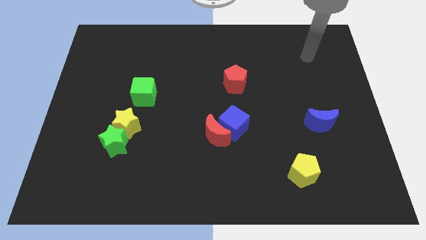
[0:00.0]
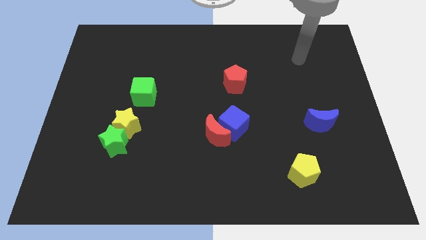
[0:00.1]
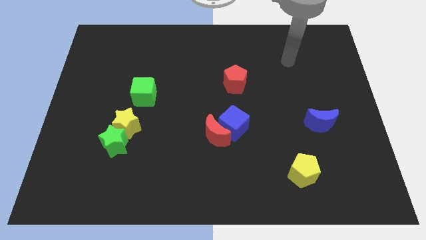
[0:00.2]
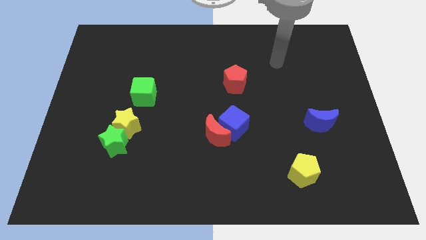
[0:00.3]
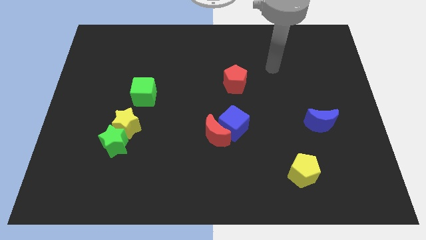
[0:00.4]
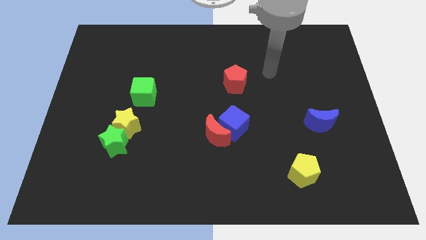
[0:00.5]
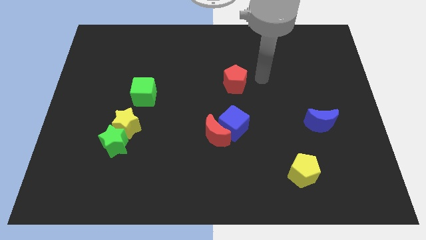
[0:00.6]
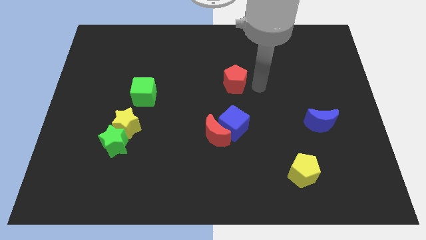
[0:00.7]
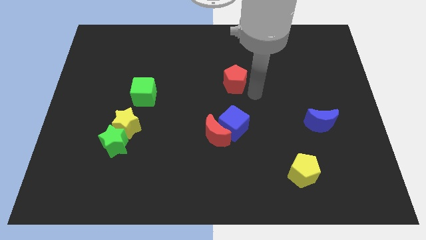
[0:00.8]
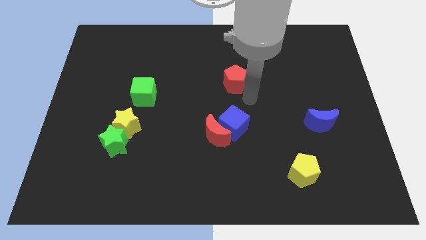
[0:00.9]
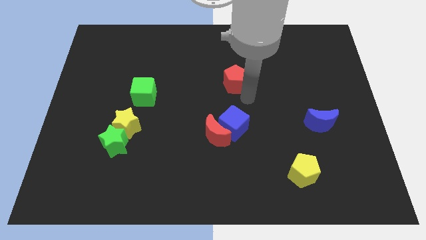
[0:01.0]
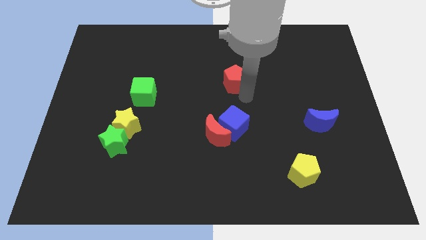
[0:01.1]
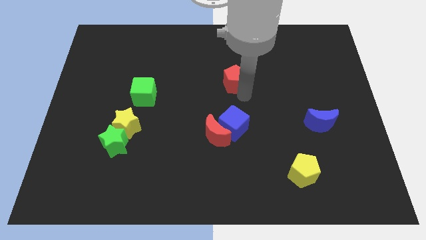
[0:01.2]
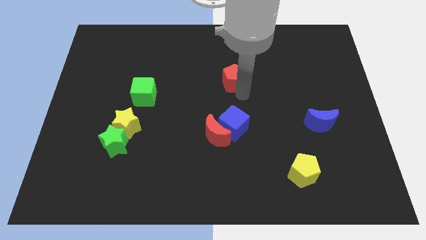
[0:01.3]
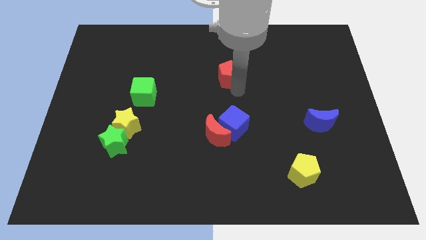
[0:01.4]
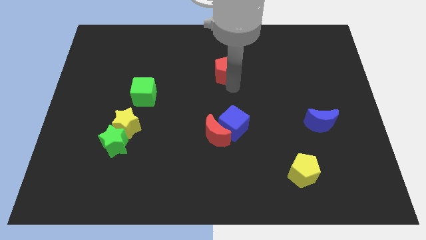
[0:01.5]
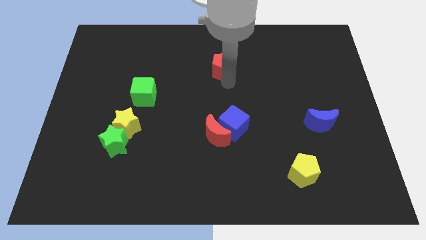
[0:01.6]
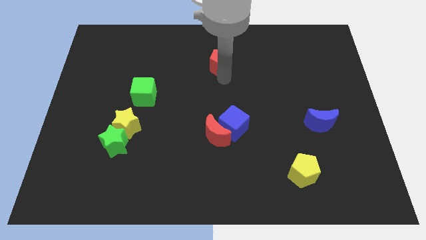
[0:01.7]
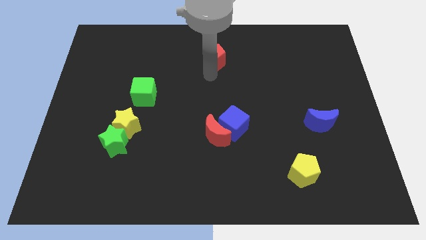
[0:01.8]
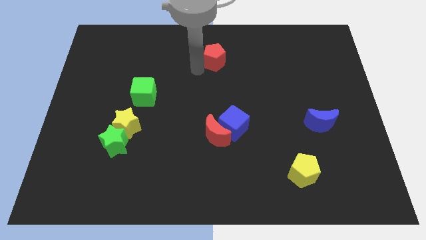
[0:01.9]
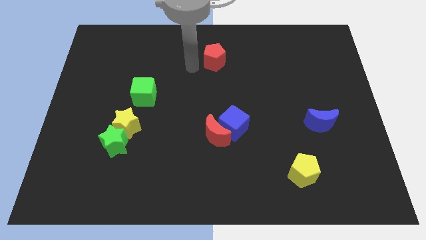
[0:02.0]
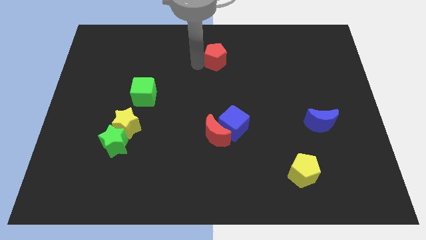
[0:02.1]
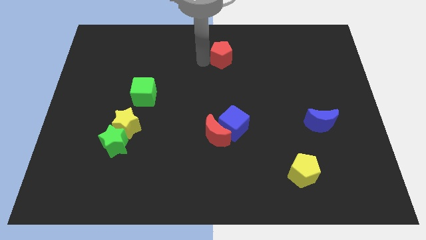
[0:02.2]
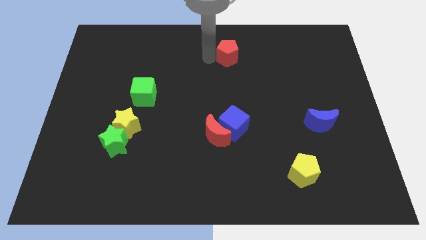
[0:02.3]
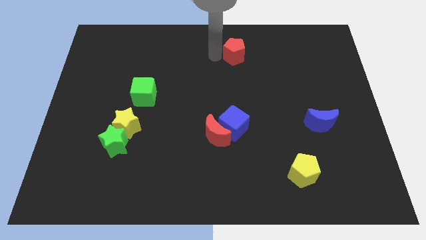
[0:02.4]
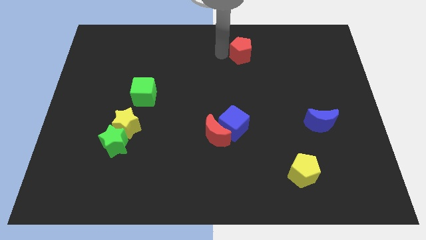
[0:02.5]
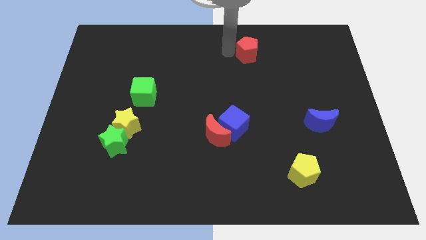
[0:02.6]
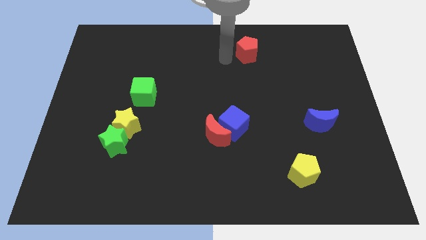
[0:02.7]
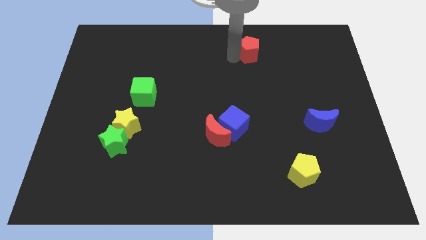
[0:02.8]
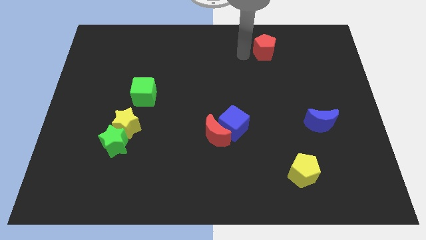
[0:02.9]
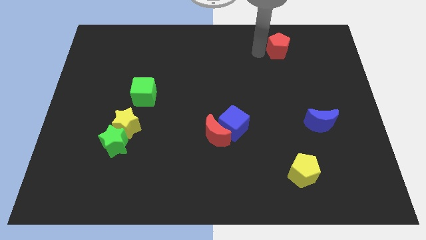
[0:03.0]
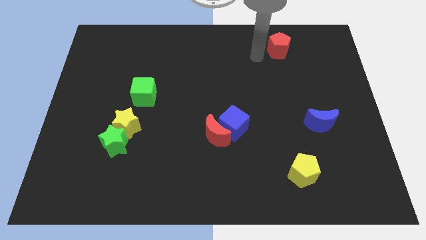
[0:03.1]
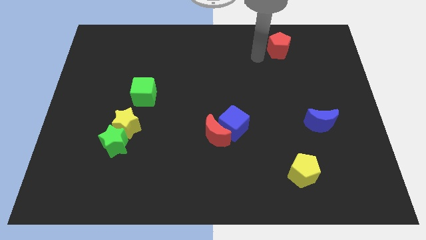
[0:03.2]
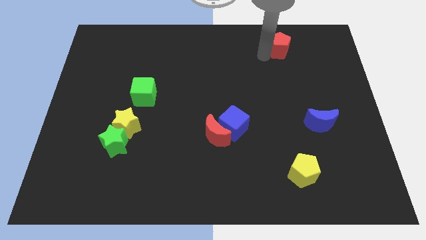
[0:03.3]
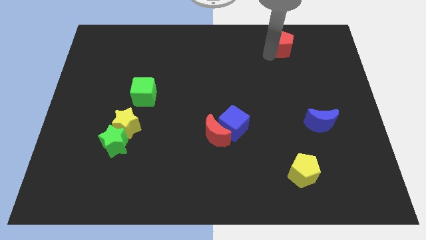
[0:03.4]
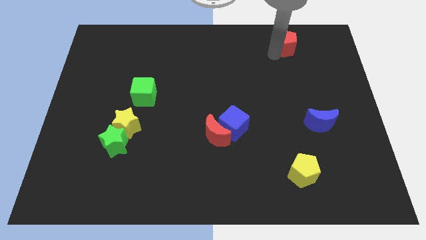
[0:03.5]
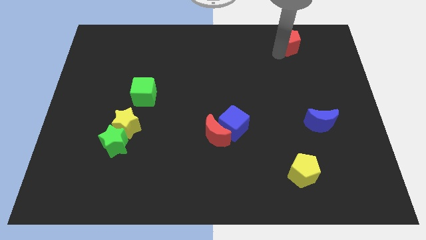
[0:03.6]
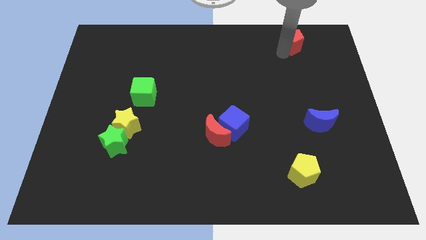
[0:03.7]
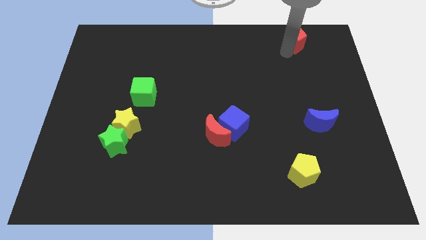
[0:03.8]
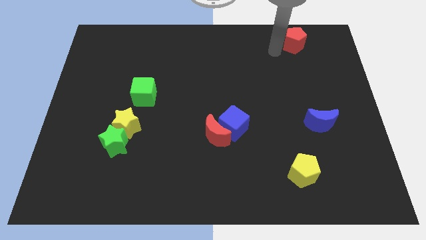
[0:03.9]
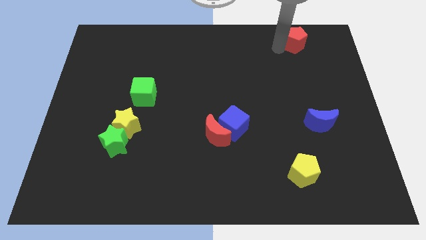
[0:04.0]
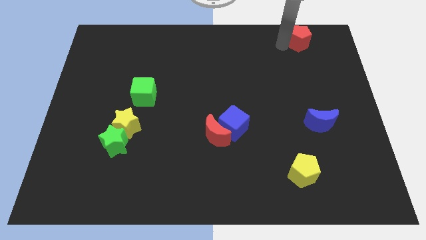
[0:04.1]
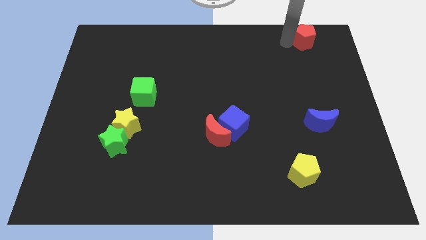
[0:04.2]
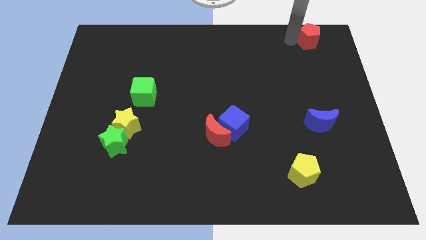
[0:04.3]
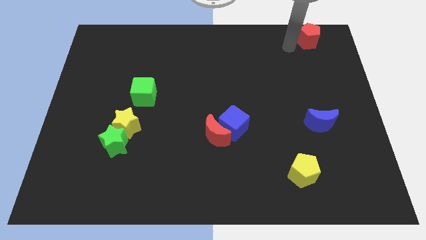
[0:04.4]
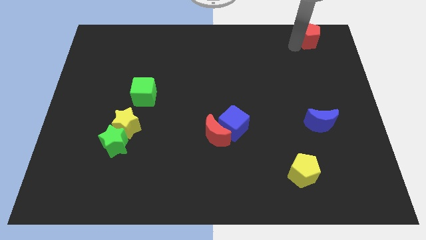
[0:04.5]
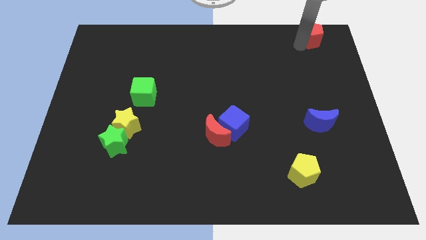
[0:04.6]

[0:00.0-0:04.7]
slide the red pentagon to the top right of the board

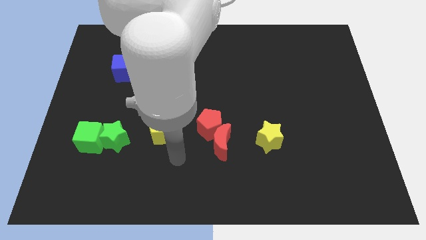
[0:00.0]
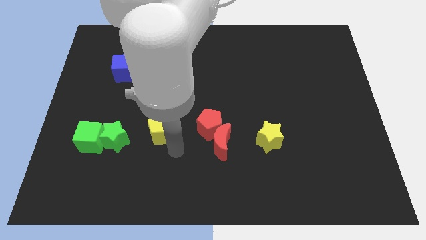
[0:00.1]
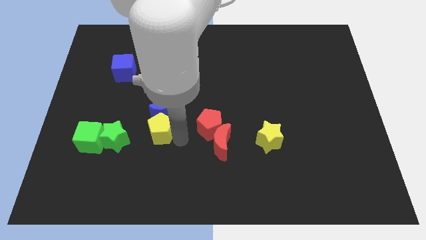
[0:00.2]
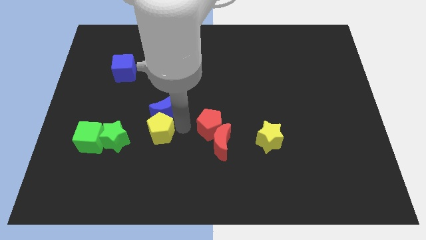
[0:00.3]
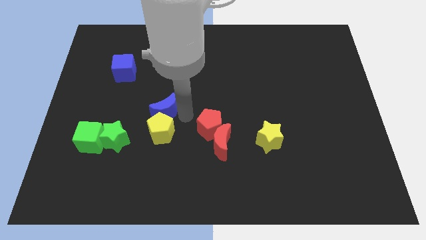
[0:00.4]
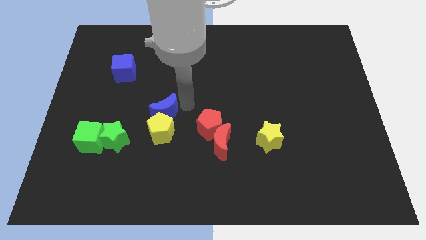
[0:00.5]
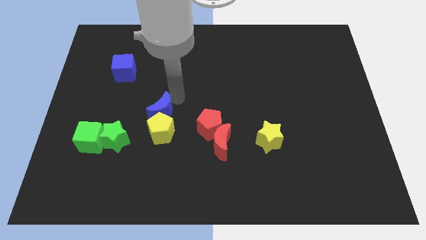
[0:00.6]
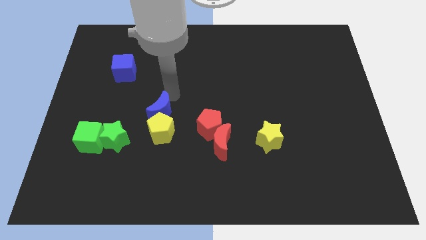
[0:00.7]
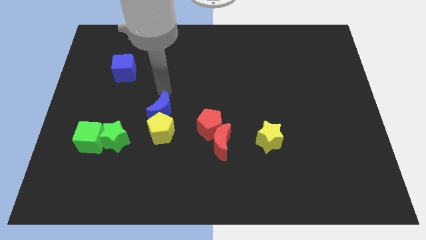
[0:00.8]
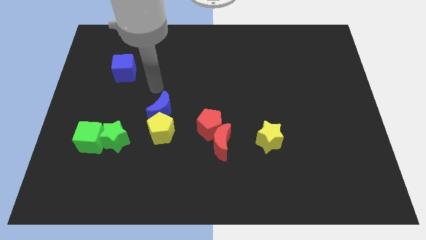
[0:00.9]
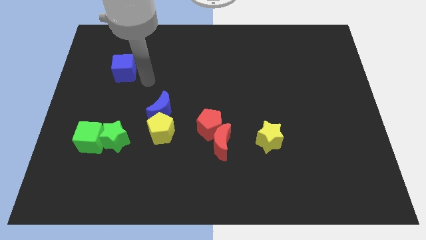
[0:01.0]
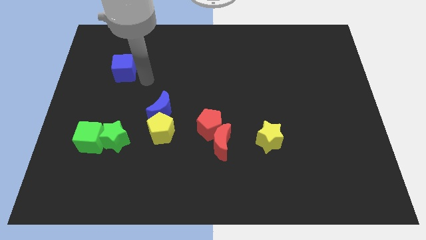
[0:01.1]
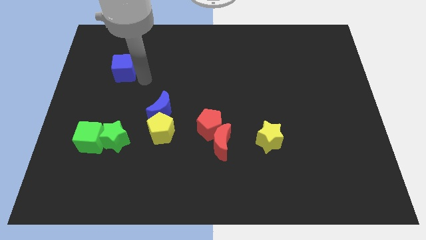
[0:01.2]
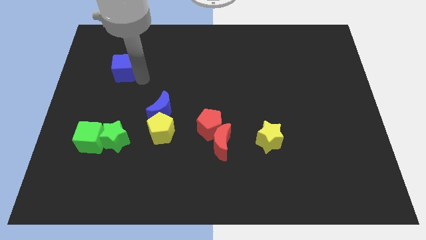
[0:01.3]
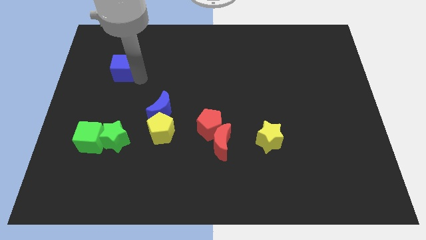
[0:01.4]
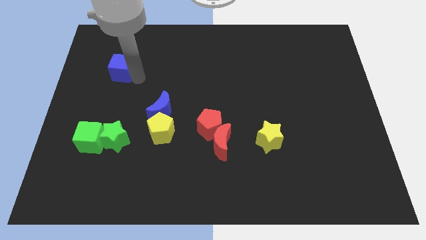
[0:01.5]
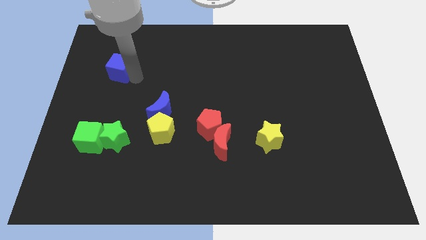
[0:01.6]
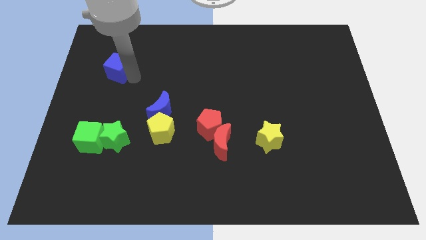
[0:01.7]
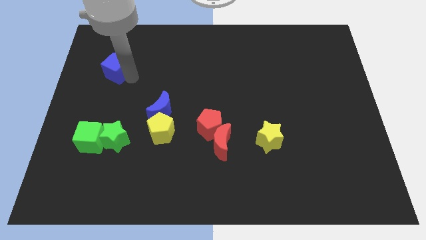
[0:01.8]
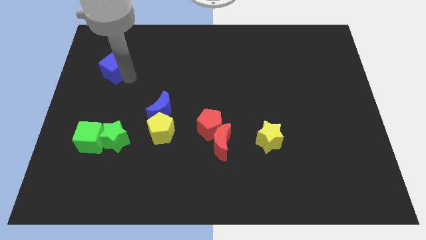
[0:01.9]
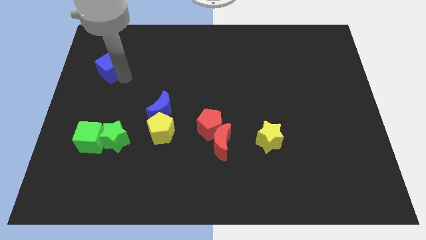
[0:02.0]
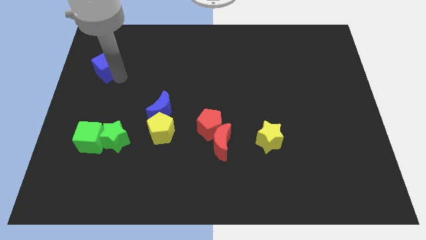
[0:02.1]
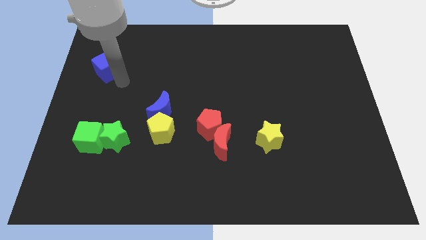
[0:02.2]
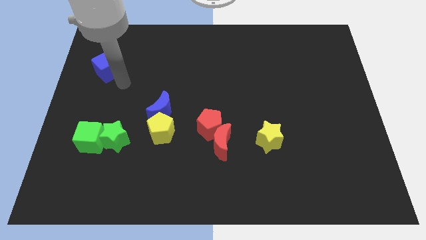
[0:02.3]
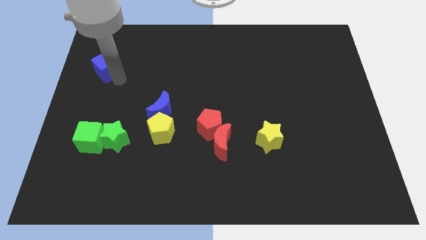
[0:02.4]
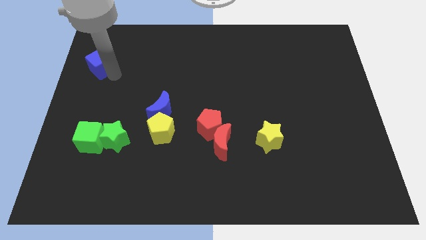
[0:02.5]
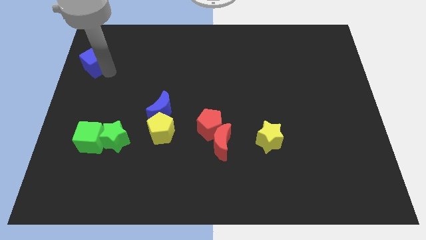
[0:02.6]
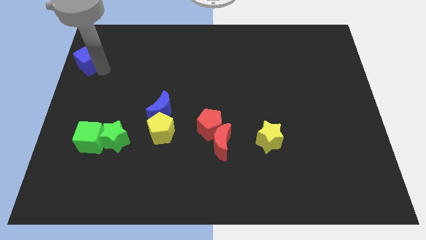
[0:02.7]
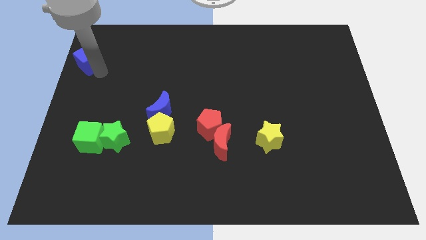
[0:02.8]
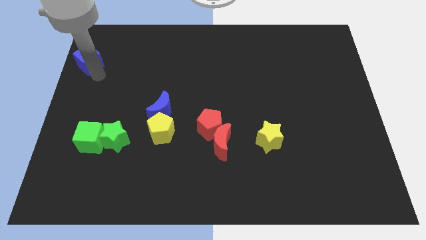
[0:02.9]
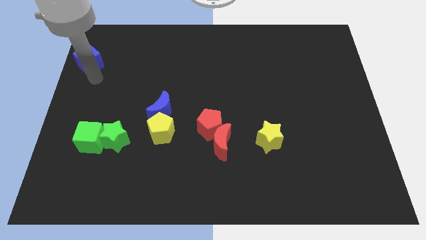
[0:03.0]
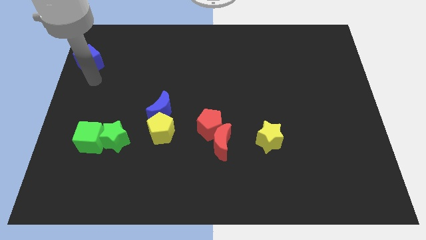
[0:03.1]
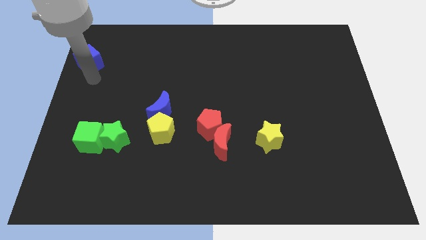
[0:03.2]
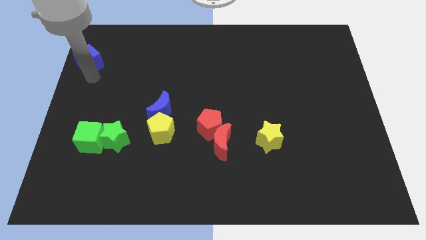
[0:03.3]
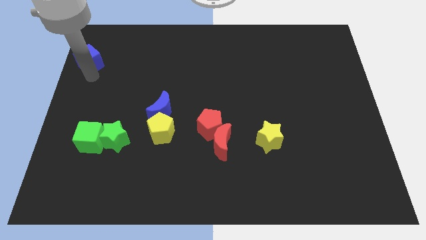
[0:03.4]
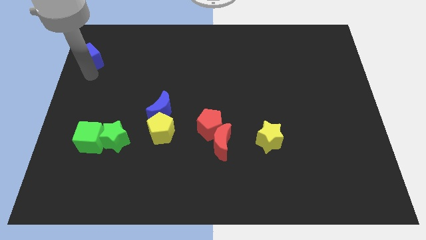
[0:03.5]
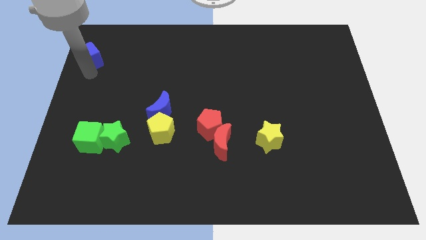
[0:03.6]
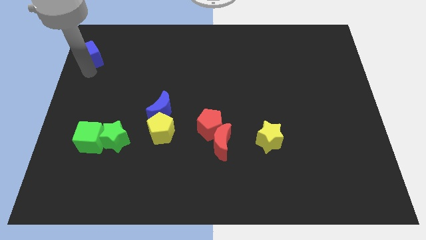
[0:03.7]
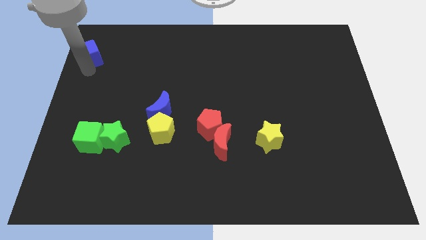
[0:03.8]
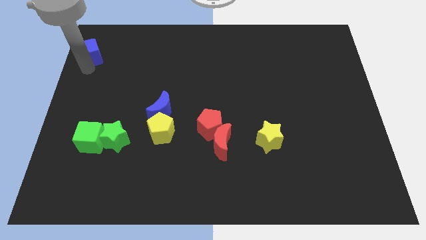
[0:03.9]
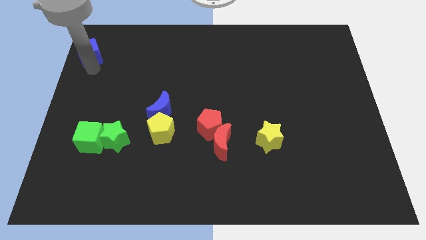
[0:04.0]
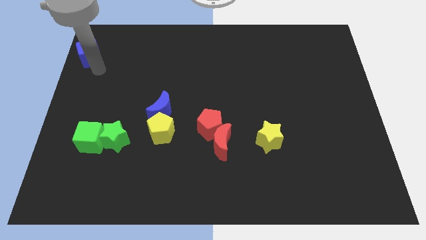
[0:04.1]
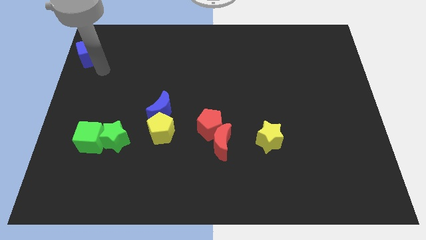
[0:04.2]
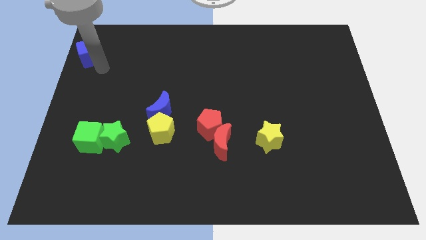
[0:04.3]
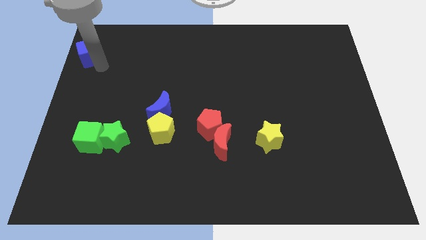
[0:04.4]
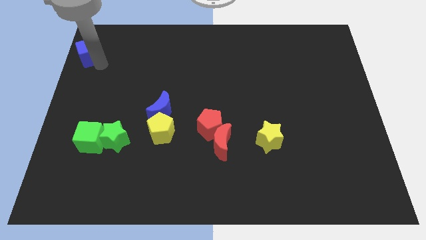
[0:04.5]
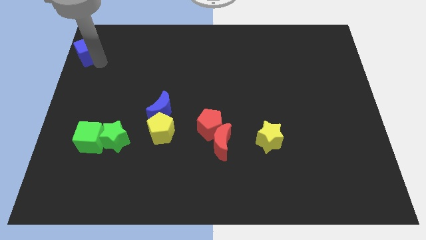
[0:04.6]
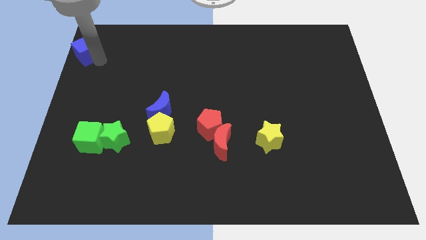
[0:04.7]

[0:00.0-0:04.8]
slide the blue cube to the top left
